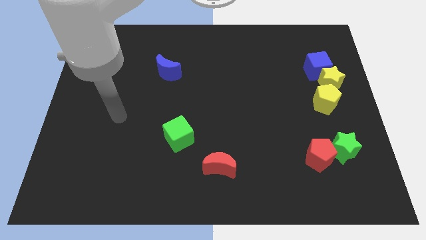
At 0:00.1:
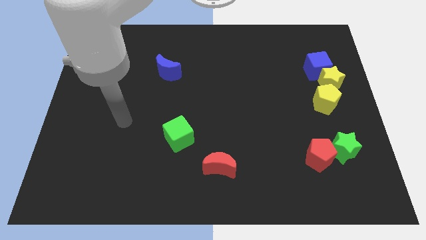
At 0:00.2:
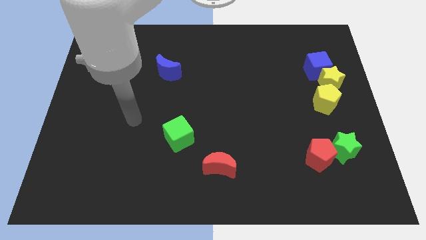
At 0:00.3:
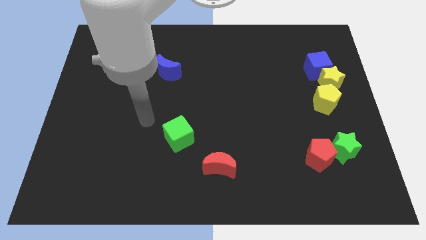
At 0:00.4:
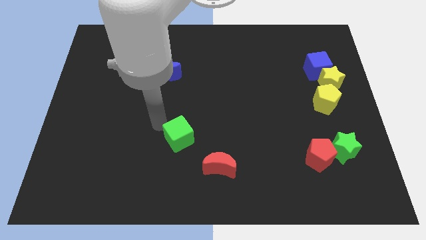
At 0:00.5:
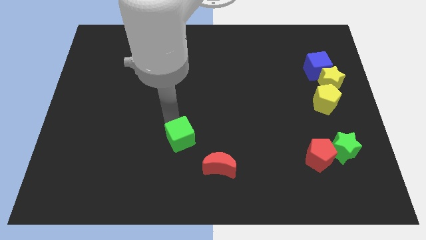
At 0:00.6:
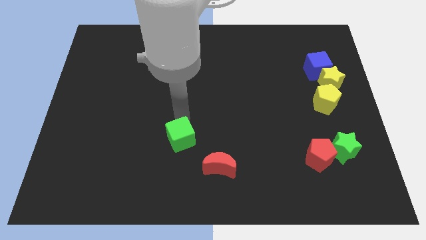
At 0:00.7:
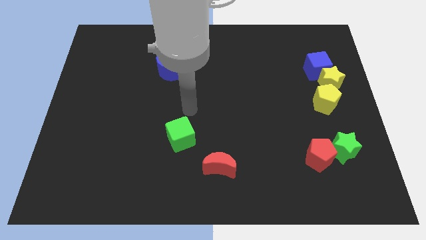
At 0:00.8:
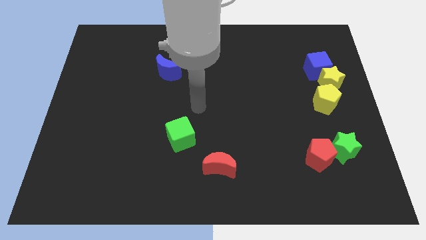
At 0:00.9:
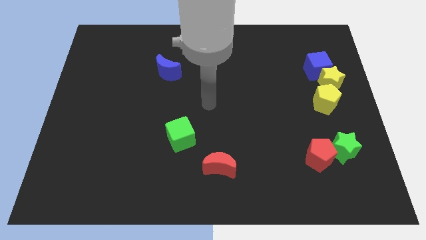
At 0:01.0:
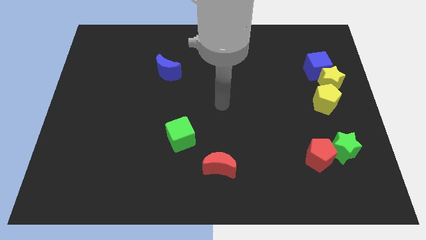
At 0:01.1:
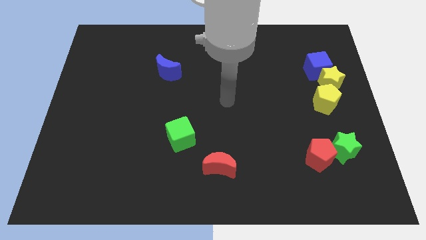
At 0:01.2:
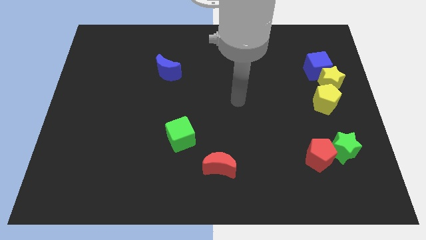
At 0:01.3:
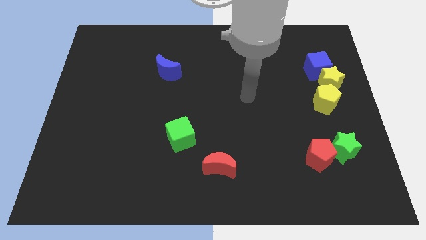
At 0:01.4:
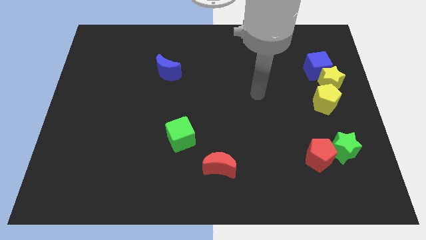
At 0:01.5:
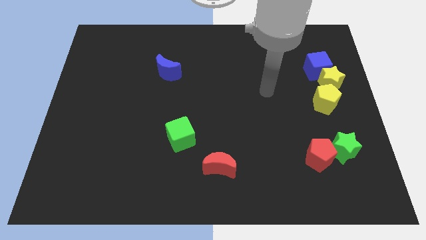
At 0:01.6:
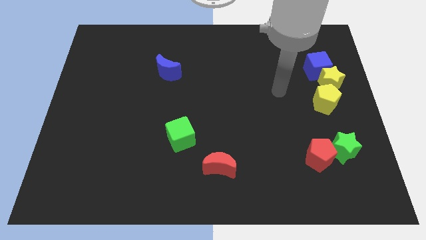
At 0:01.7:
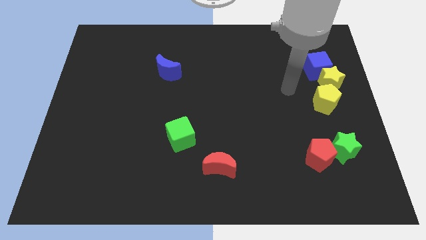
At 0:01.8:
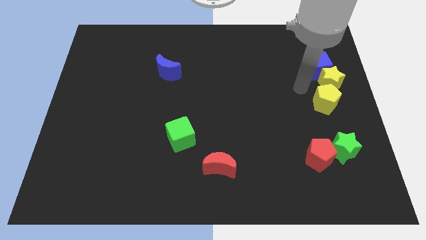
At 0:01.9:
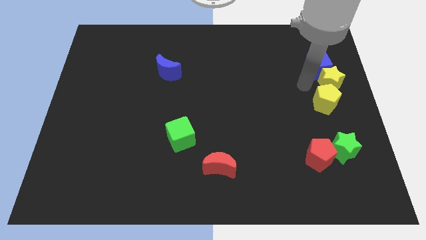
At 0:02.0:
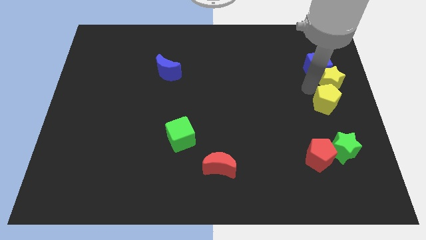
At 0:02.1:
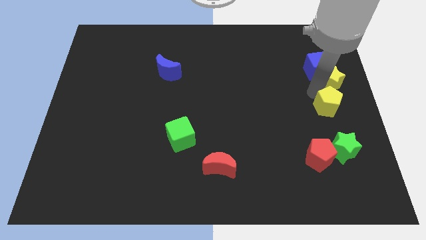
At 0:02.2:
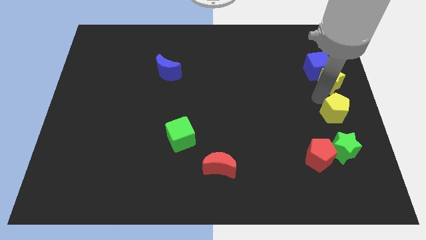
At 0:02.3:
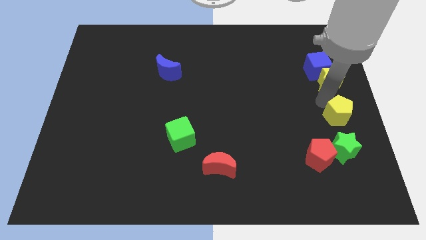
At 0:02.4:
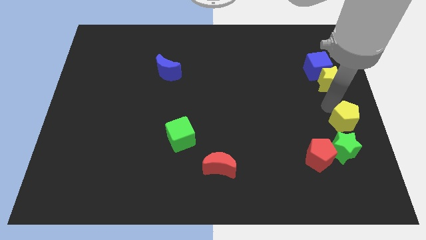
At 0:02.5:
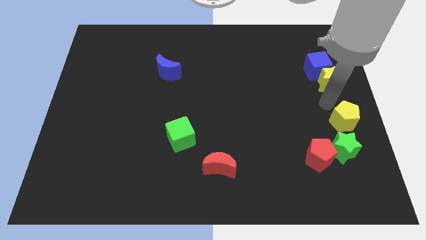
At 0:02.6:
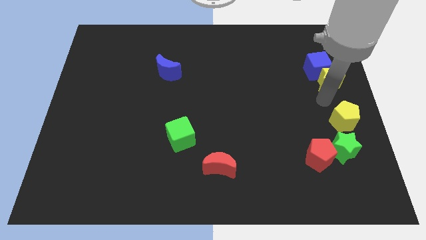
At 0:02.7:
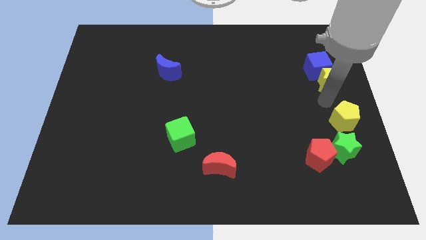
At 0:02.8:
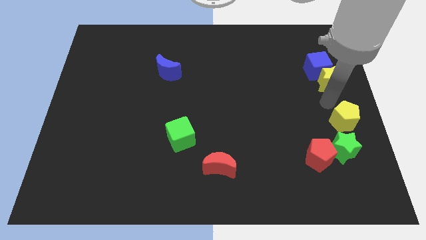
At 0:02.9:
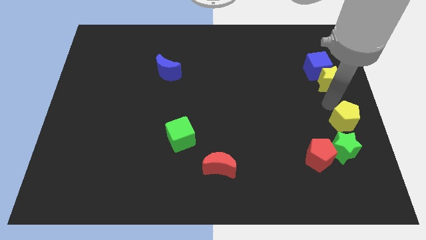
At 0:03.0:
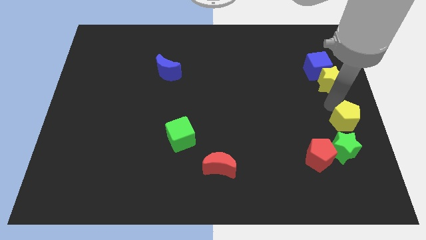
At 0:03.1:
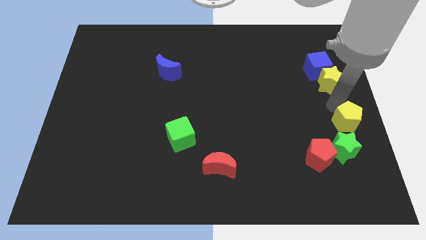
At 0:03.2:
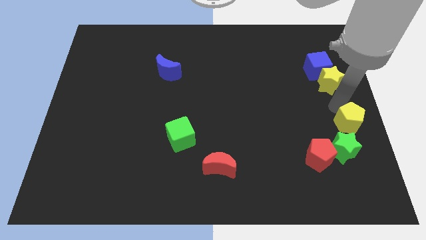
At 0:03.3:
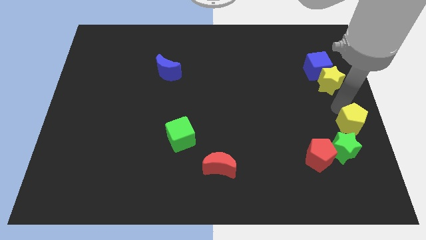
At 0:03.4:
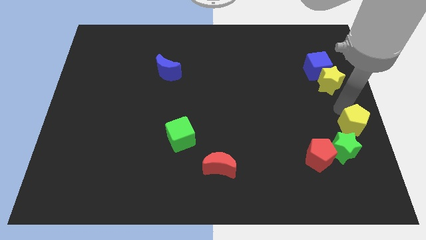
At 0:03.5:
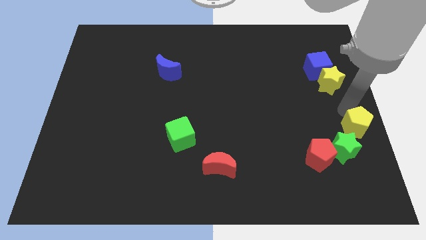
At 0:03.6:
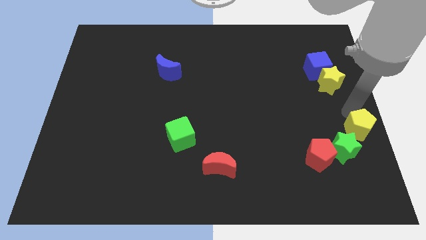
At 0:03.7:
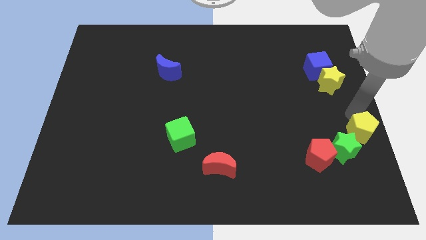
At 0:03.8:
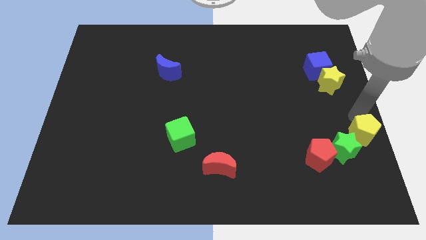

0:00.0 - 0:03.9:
push the yellow pentagon a little downwards

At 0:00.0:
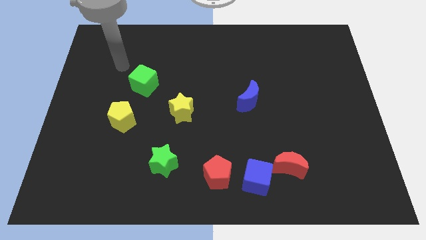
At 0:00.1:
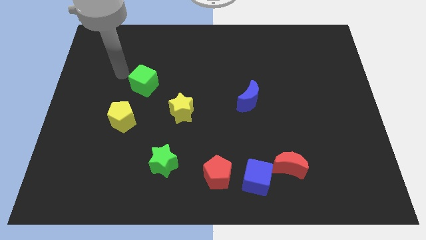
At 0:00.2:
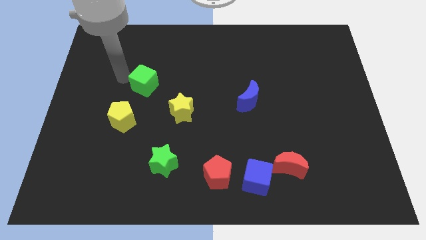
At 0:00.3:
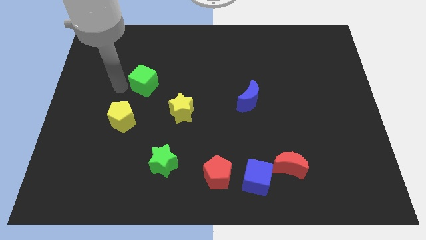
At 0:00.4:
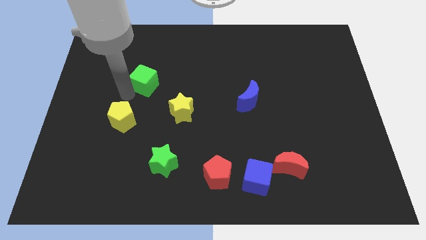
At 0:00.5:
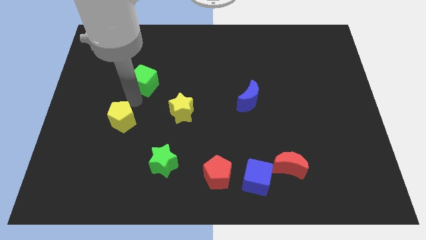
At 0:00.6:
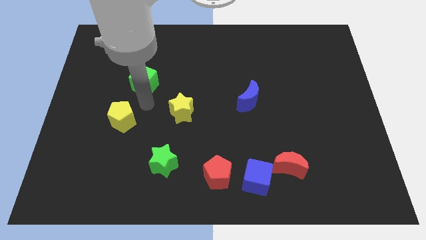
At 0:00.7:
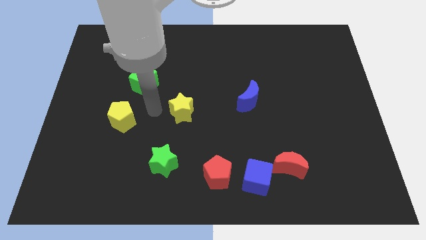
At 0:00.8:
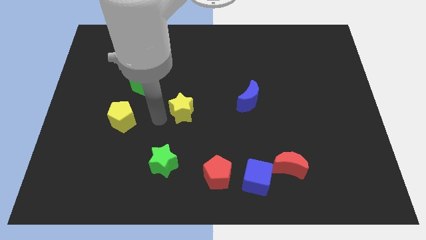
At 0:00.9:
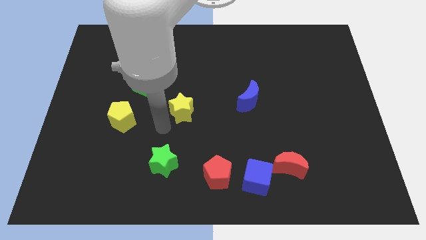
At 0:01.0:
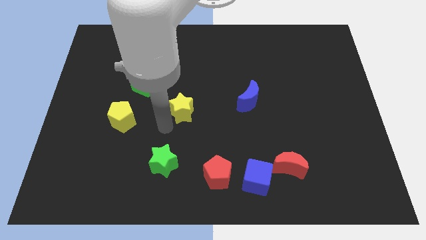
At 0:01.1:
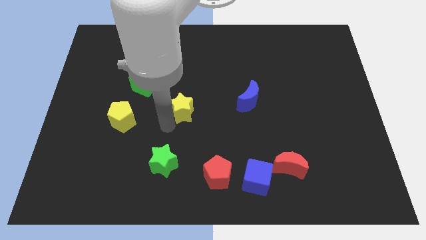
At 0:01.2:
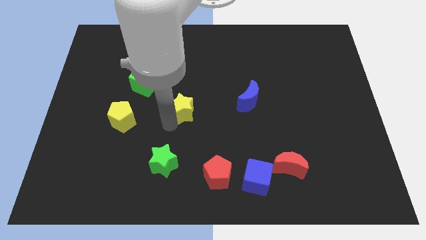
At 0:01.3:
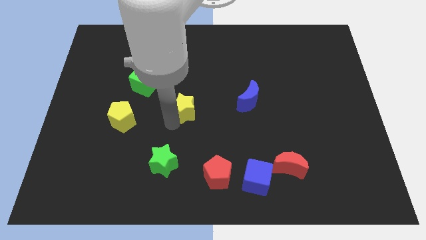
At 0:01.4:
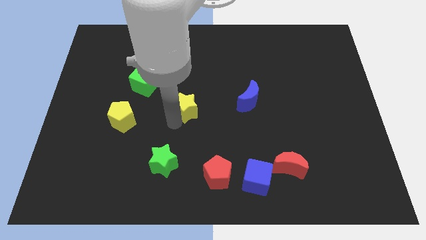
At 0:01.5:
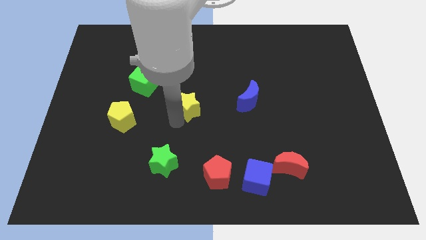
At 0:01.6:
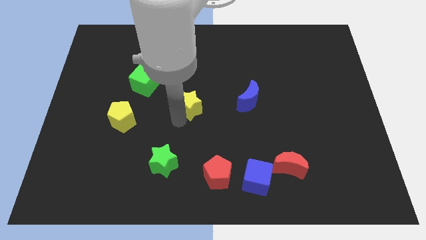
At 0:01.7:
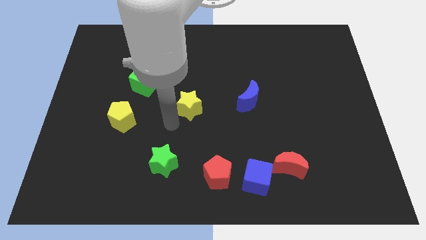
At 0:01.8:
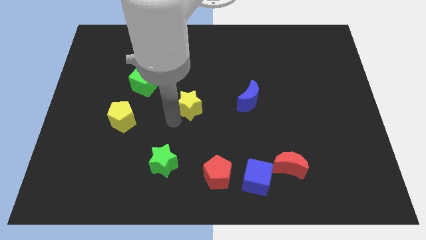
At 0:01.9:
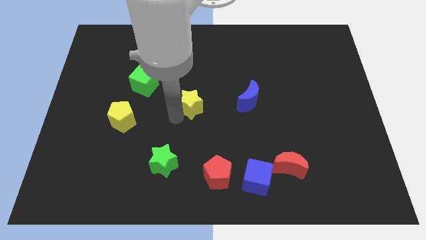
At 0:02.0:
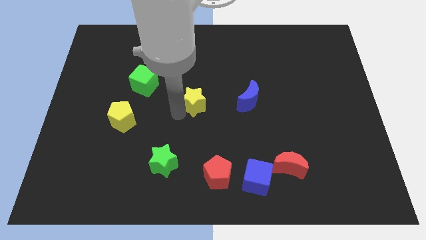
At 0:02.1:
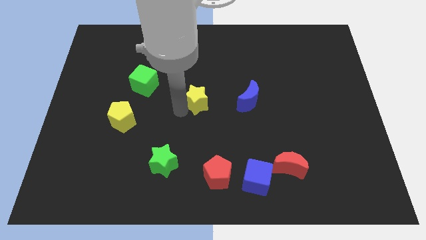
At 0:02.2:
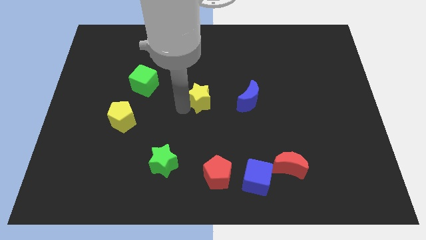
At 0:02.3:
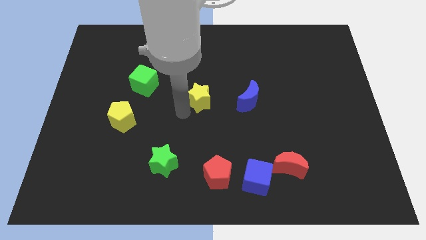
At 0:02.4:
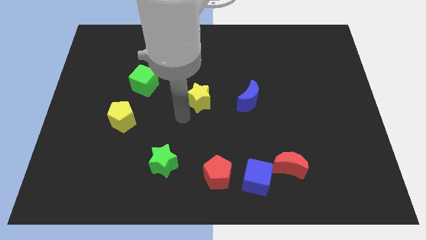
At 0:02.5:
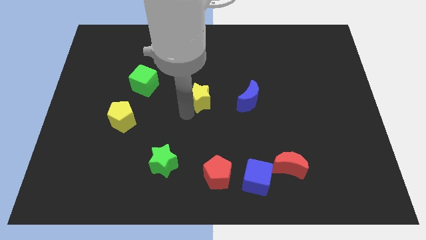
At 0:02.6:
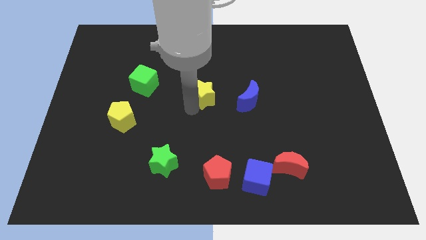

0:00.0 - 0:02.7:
slightly move the yellow star up and then right

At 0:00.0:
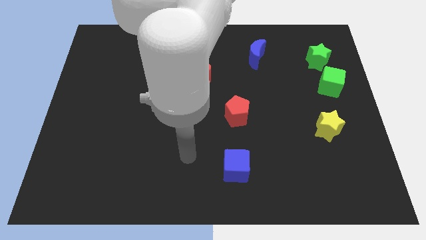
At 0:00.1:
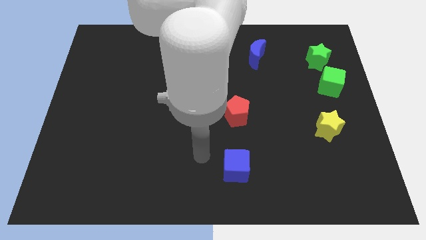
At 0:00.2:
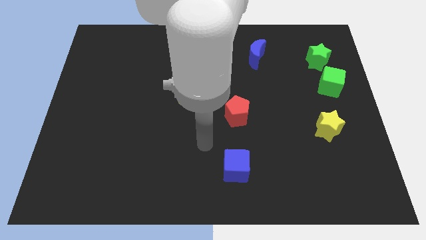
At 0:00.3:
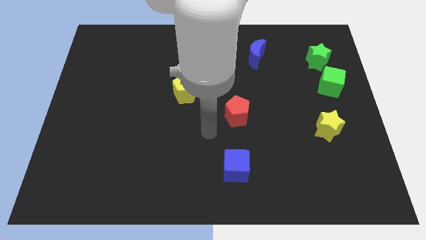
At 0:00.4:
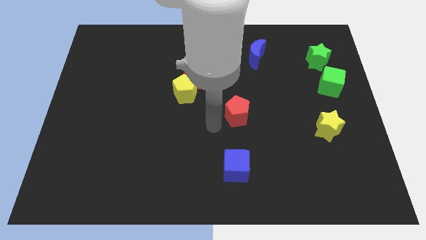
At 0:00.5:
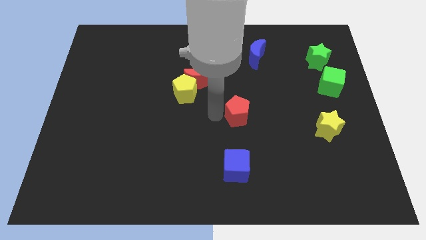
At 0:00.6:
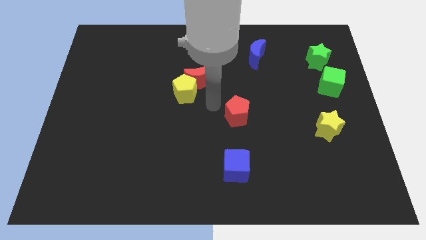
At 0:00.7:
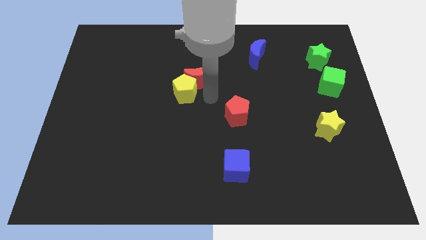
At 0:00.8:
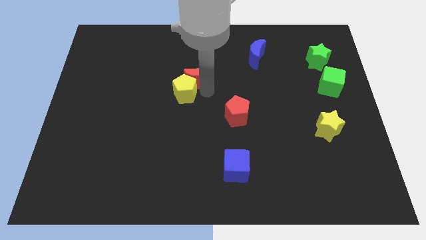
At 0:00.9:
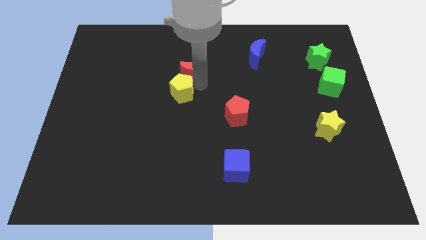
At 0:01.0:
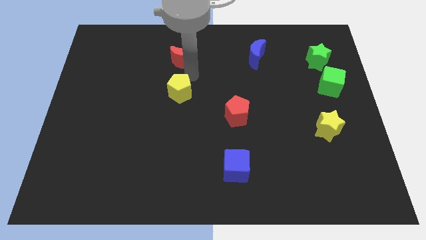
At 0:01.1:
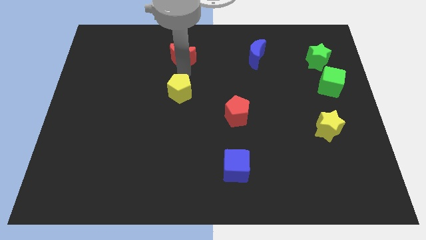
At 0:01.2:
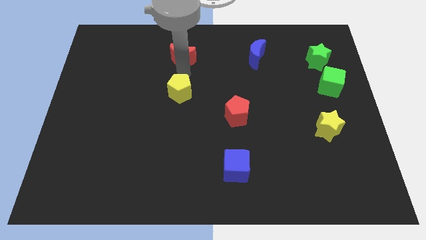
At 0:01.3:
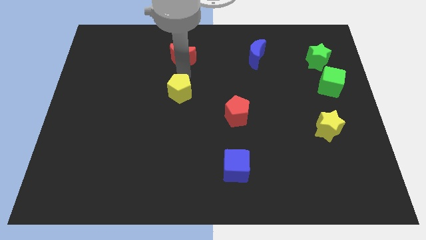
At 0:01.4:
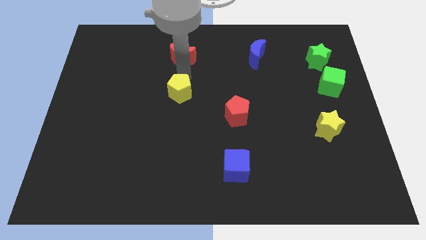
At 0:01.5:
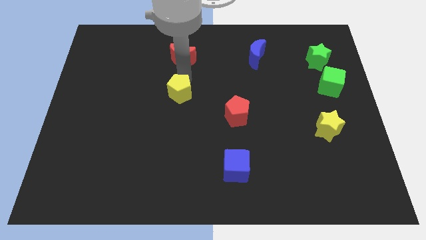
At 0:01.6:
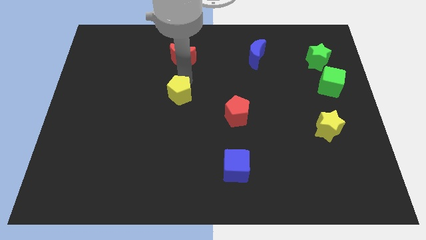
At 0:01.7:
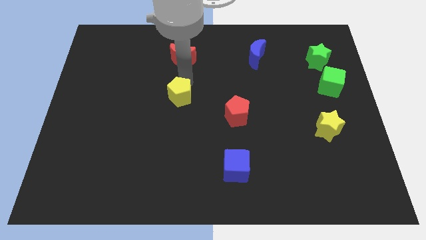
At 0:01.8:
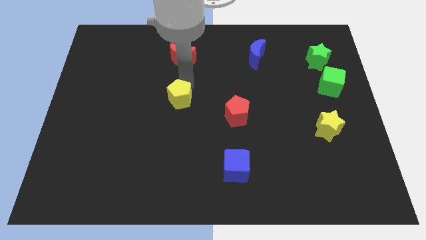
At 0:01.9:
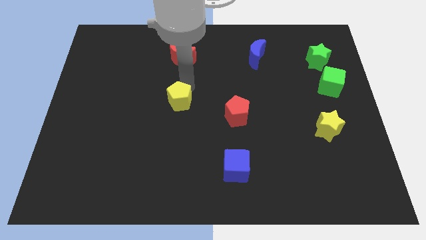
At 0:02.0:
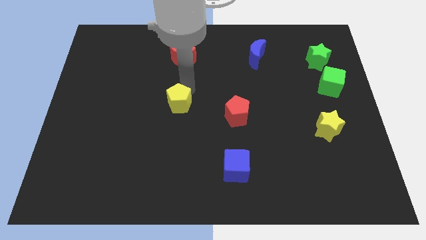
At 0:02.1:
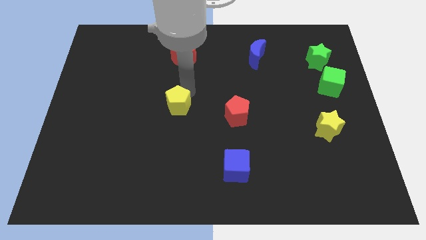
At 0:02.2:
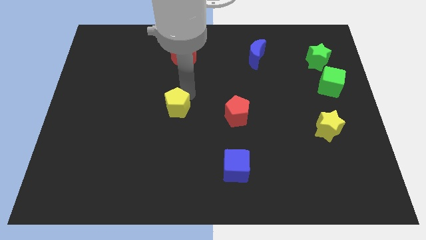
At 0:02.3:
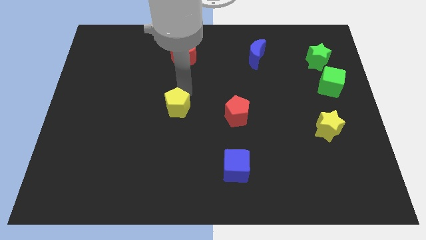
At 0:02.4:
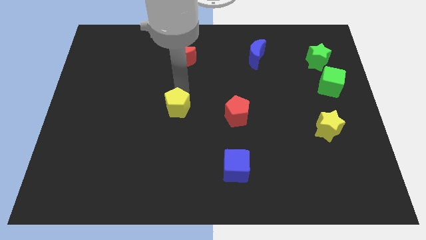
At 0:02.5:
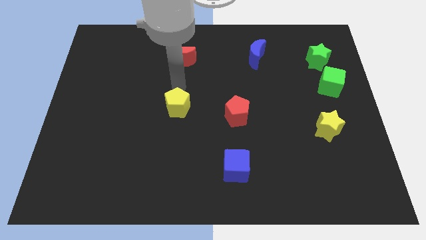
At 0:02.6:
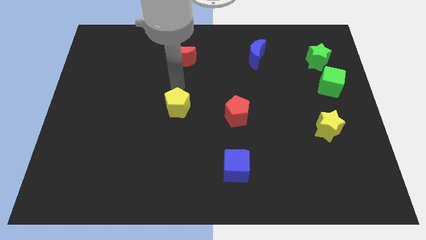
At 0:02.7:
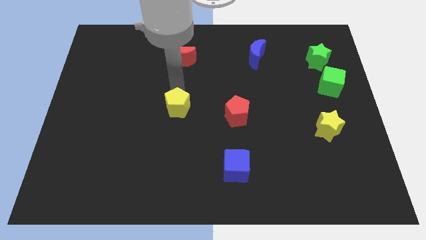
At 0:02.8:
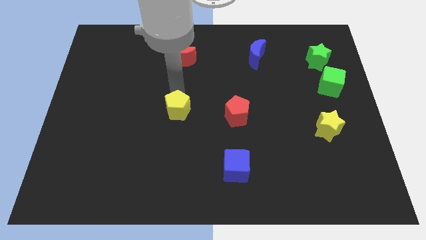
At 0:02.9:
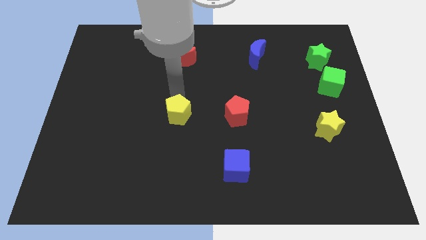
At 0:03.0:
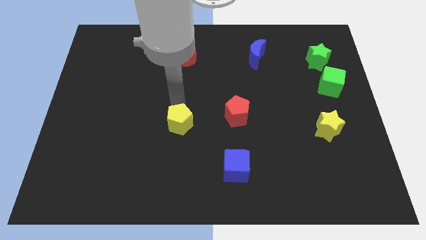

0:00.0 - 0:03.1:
slightly push the yellow pentagon down
